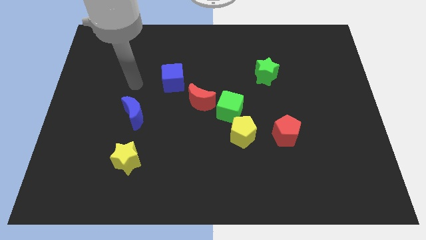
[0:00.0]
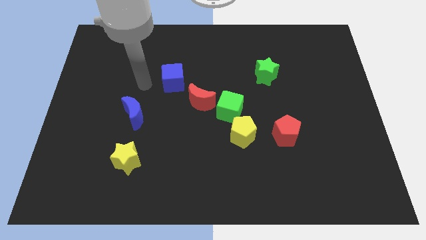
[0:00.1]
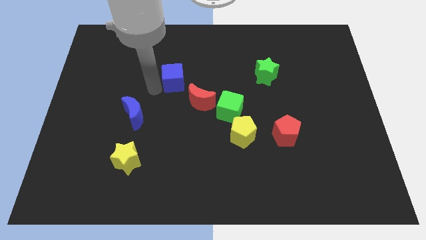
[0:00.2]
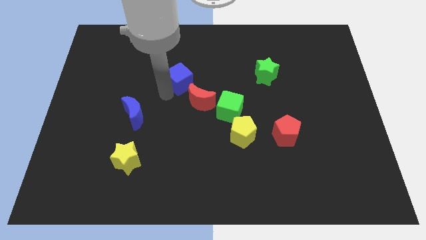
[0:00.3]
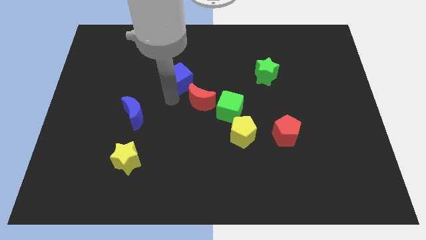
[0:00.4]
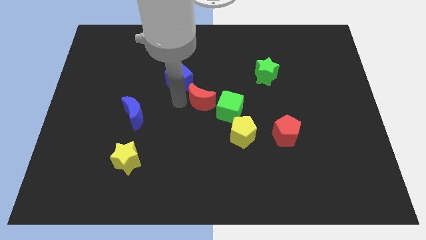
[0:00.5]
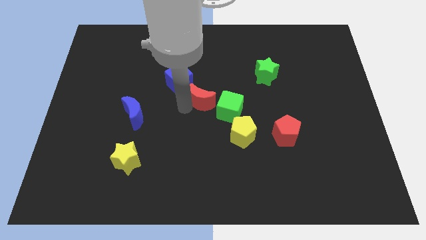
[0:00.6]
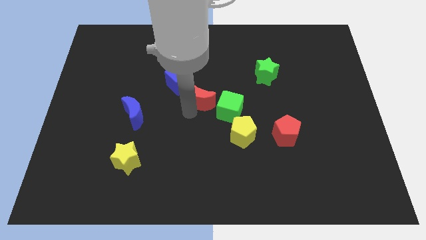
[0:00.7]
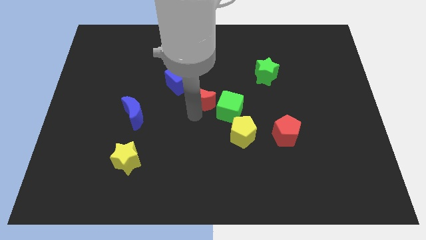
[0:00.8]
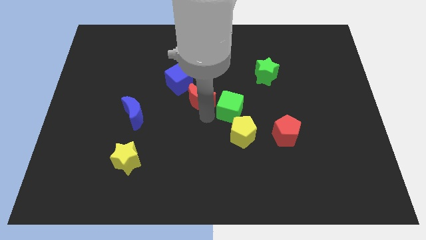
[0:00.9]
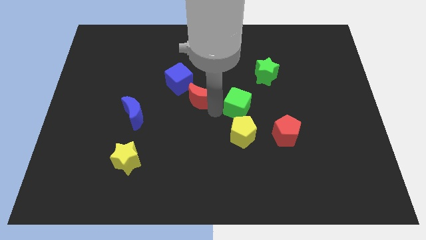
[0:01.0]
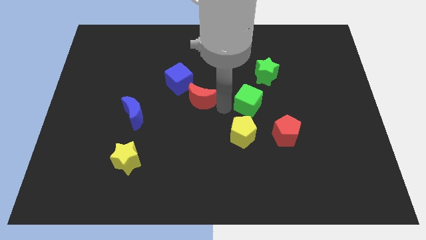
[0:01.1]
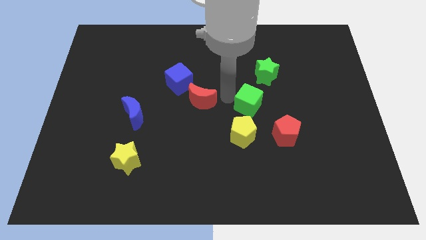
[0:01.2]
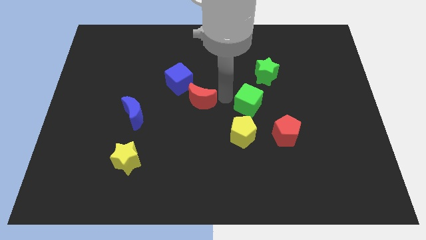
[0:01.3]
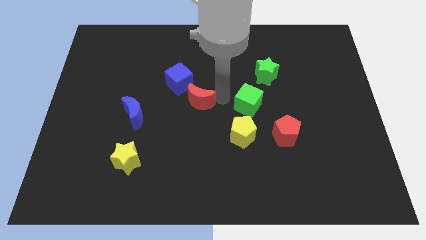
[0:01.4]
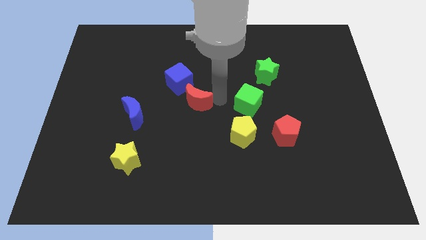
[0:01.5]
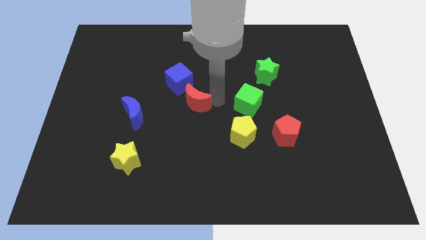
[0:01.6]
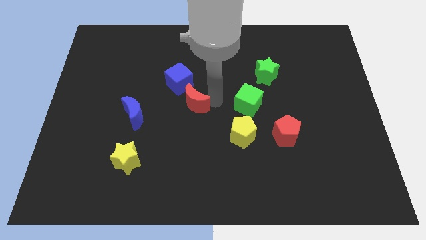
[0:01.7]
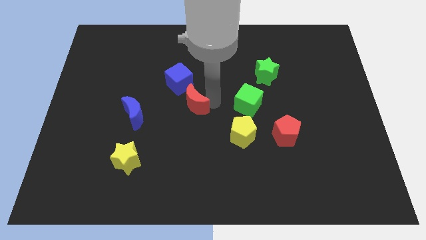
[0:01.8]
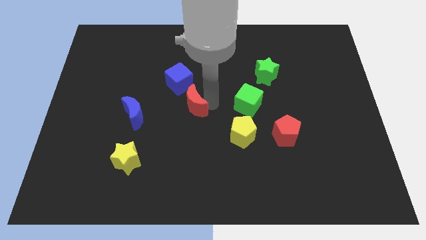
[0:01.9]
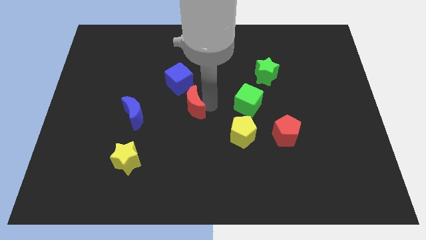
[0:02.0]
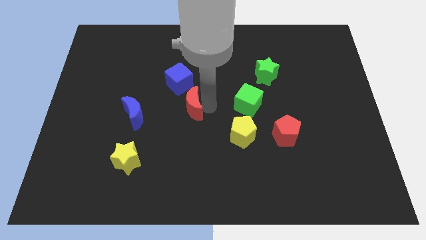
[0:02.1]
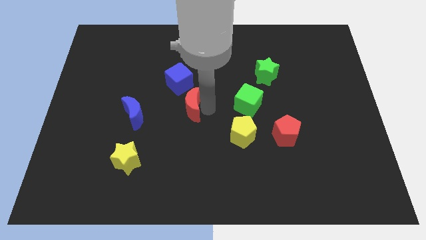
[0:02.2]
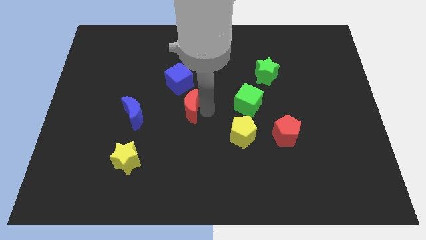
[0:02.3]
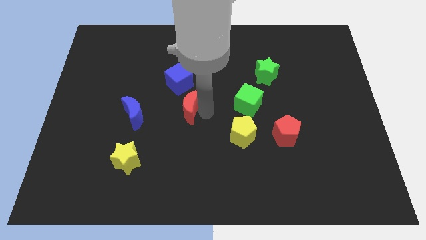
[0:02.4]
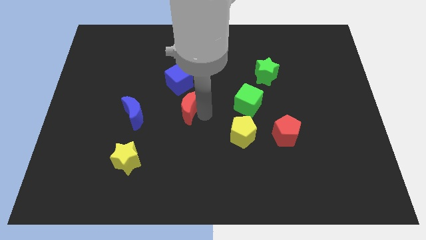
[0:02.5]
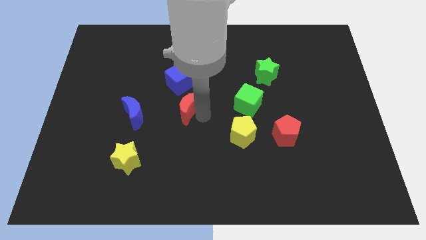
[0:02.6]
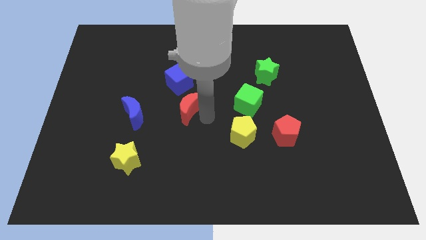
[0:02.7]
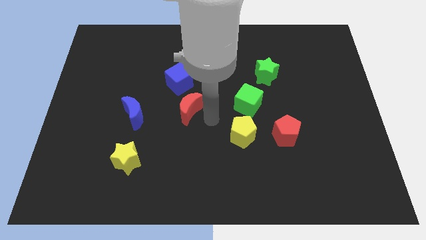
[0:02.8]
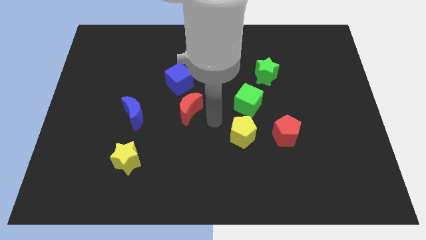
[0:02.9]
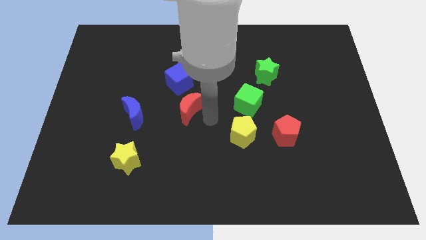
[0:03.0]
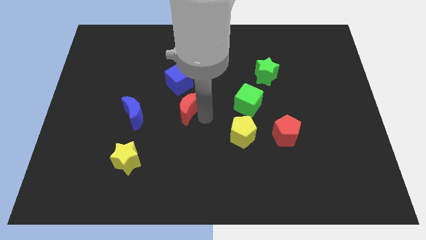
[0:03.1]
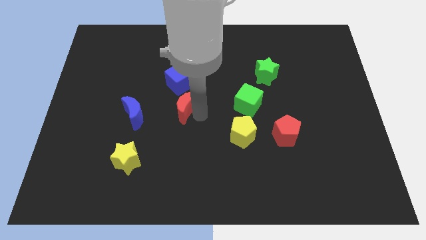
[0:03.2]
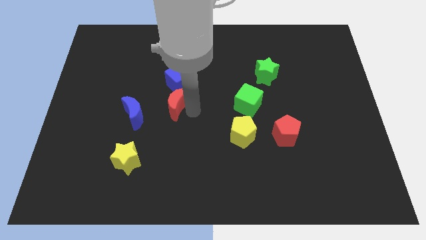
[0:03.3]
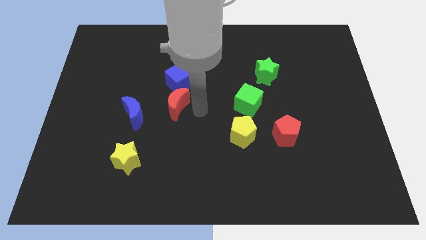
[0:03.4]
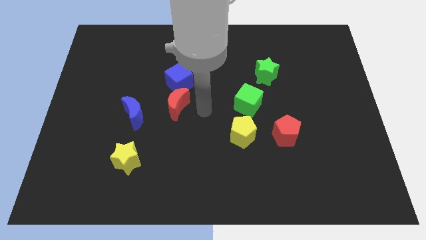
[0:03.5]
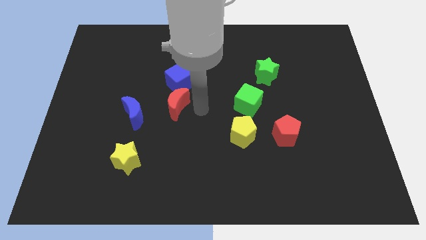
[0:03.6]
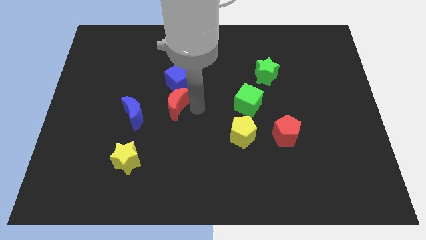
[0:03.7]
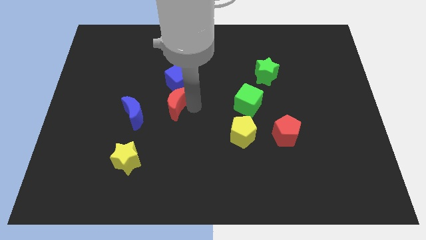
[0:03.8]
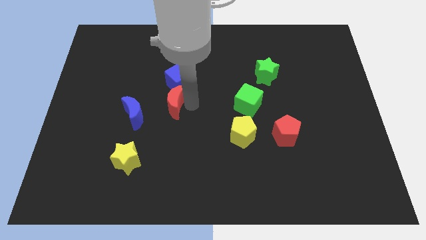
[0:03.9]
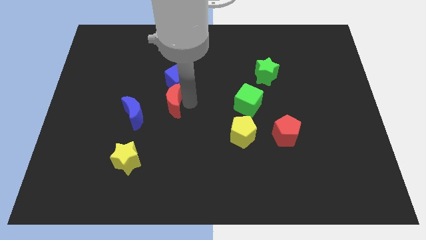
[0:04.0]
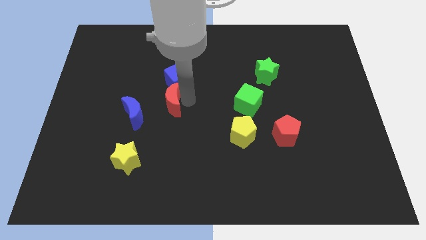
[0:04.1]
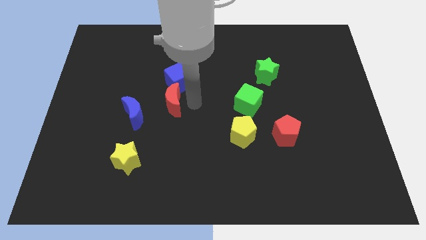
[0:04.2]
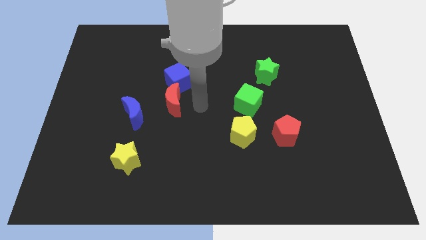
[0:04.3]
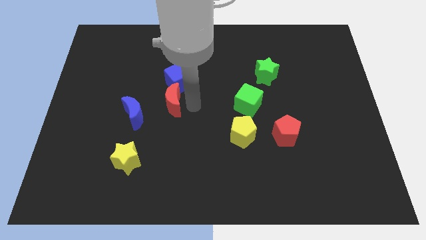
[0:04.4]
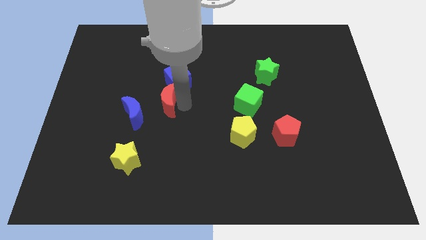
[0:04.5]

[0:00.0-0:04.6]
slide the red moon left a bit

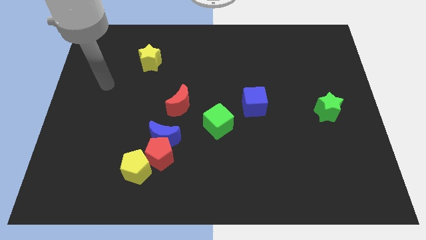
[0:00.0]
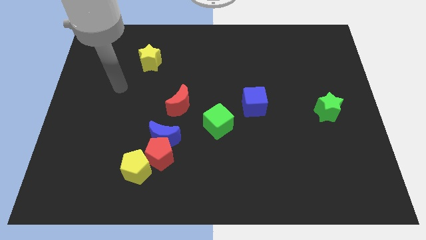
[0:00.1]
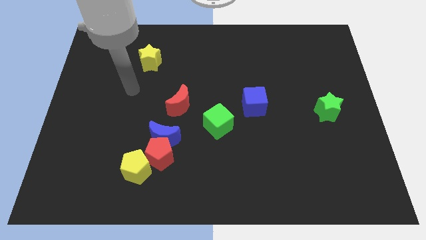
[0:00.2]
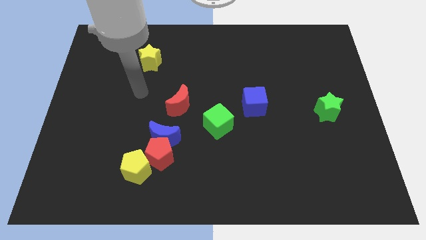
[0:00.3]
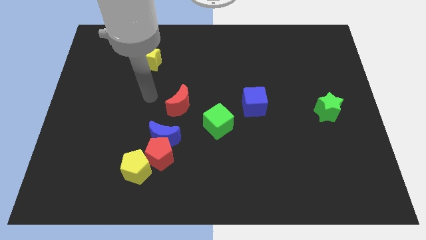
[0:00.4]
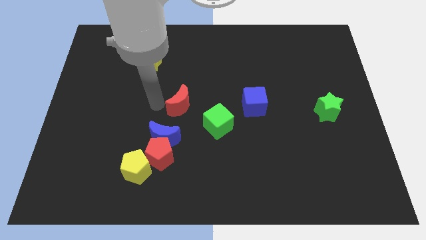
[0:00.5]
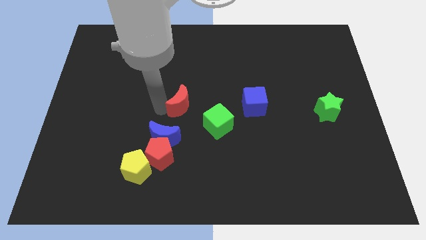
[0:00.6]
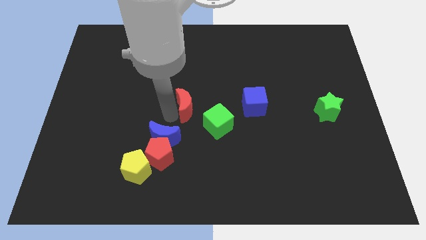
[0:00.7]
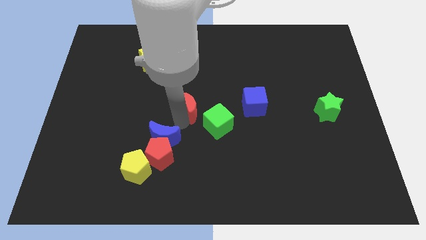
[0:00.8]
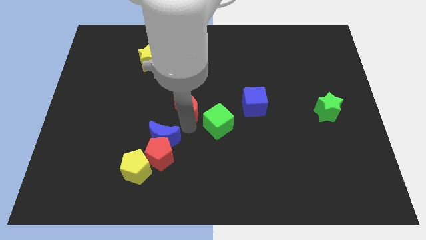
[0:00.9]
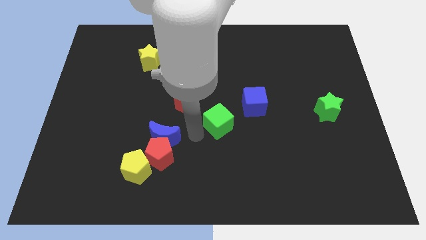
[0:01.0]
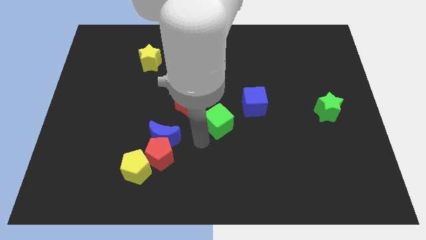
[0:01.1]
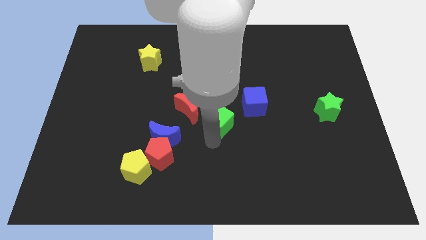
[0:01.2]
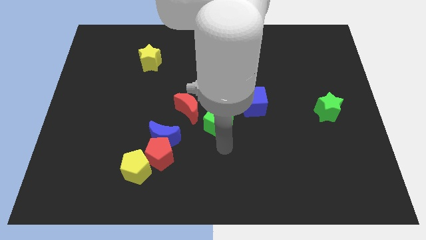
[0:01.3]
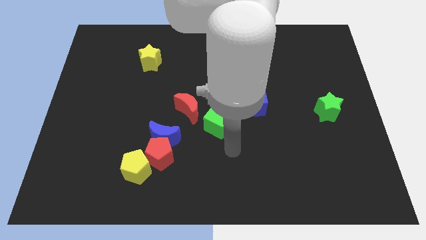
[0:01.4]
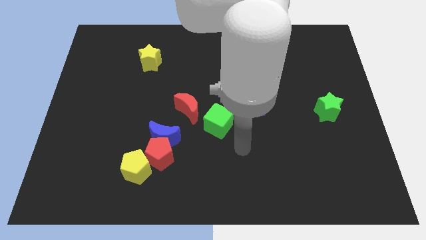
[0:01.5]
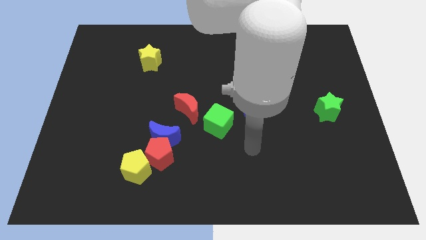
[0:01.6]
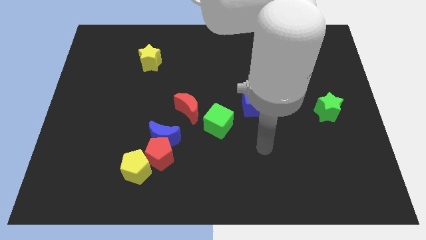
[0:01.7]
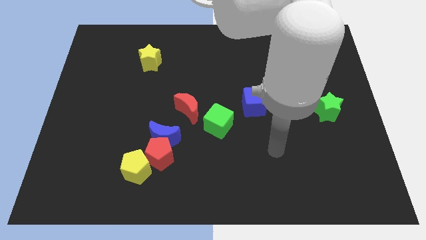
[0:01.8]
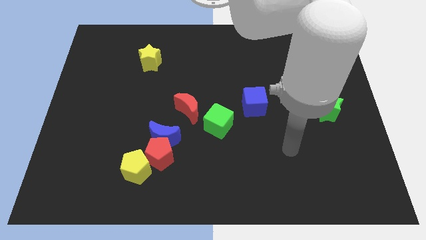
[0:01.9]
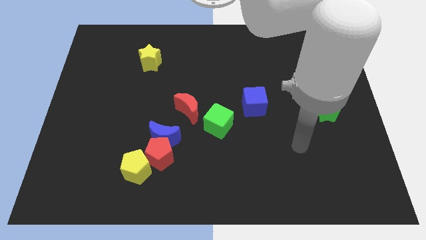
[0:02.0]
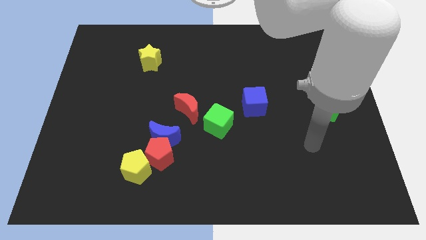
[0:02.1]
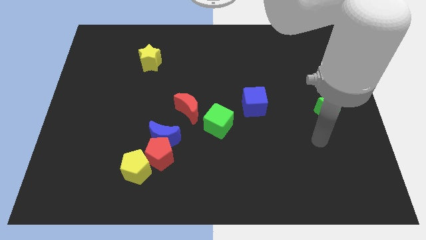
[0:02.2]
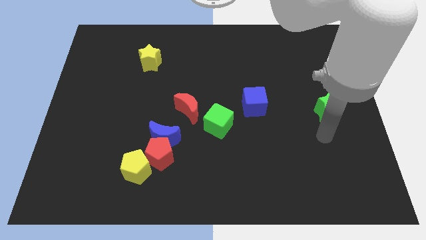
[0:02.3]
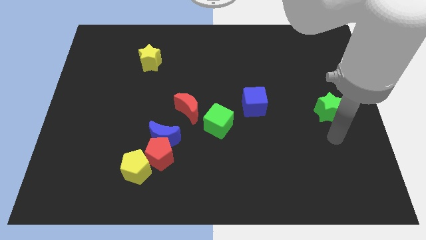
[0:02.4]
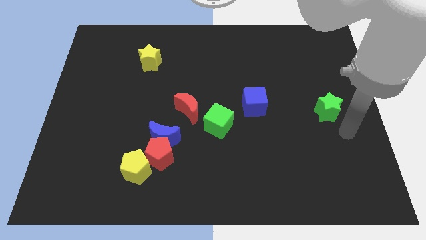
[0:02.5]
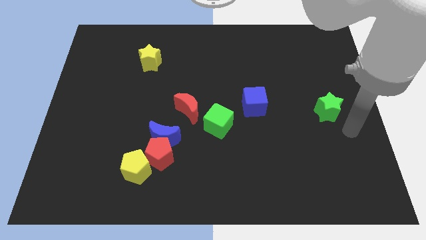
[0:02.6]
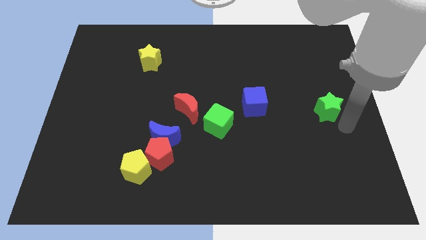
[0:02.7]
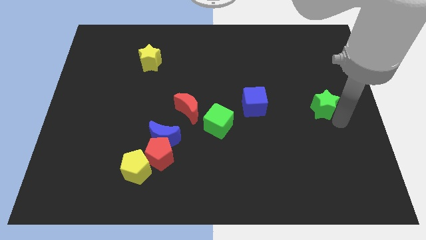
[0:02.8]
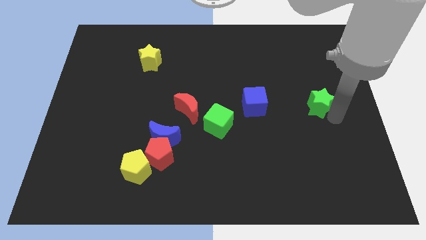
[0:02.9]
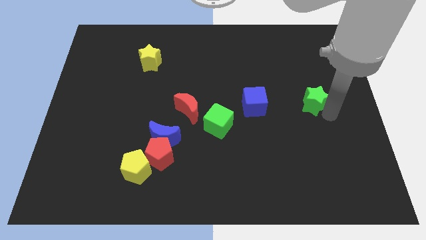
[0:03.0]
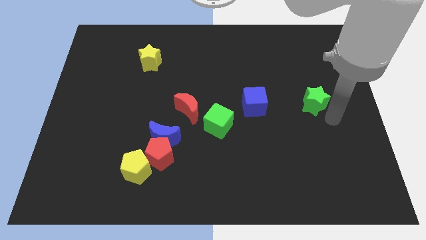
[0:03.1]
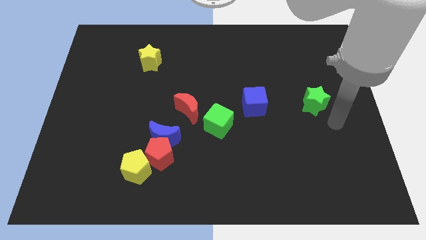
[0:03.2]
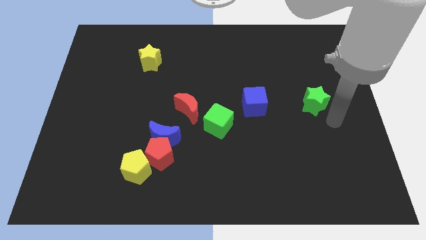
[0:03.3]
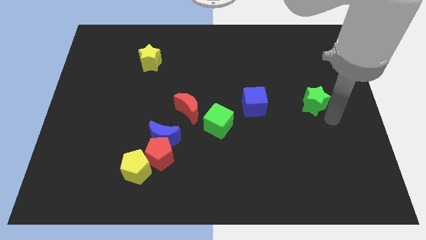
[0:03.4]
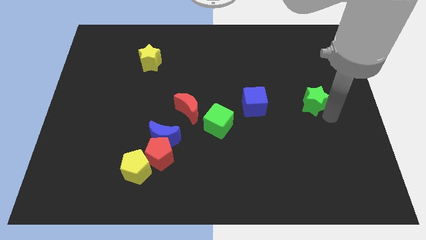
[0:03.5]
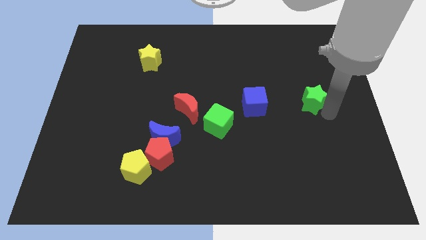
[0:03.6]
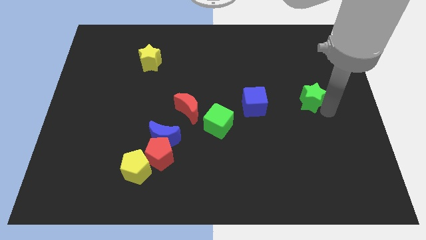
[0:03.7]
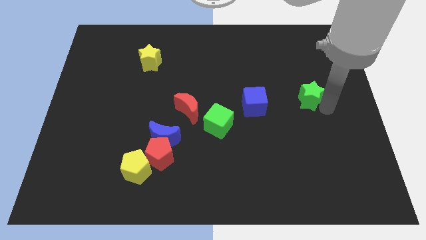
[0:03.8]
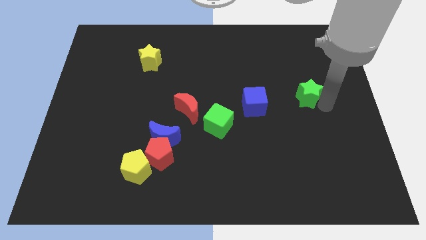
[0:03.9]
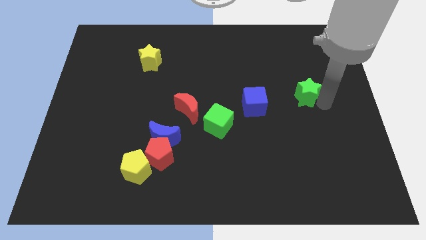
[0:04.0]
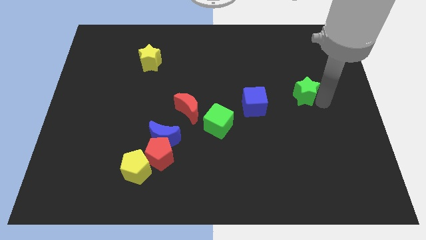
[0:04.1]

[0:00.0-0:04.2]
slightly push the green star up and to the left diagonally
